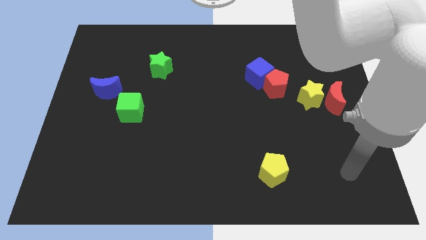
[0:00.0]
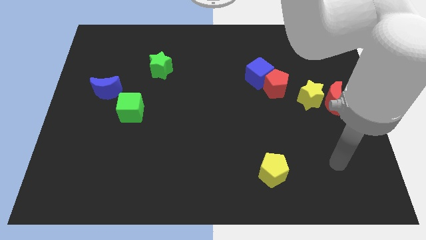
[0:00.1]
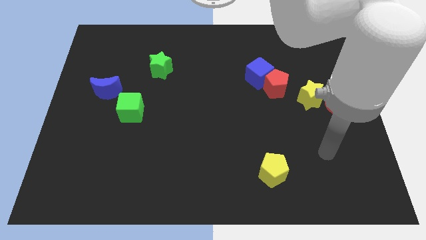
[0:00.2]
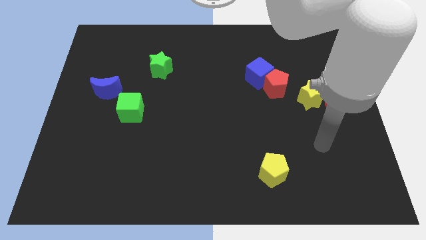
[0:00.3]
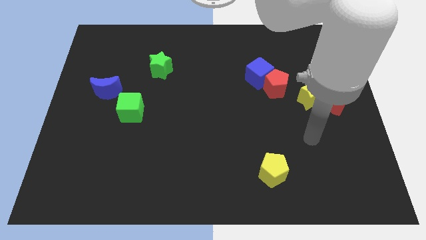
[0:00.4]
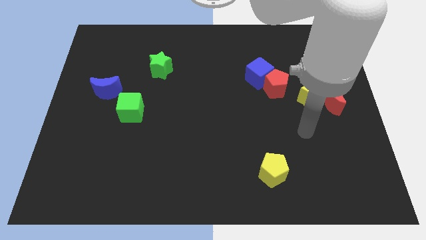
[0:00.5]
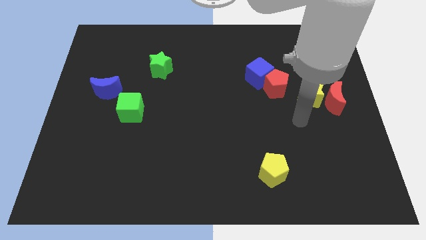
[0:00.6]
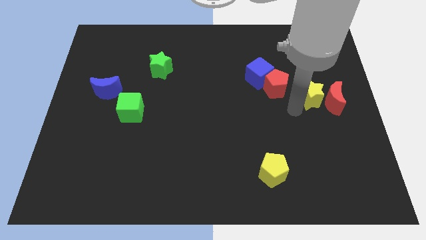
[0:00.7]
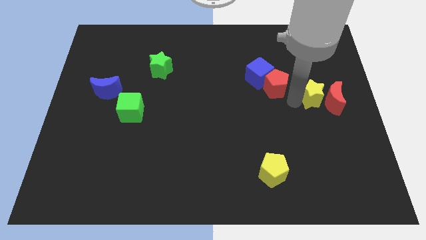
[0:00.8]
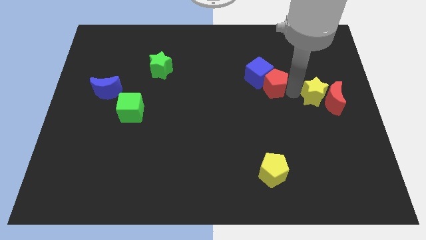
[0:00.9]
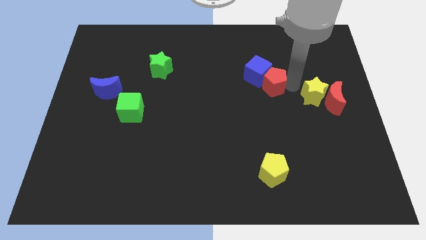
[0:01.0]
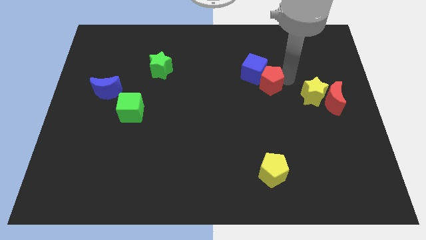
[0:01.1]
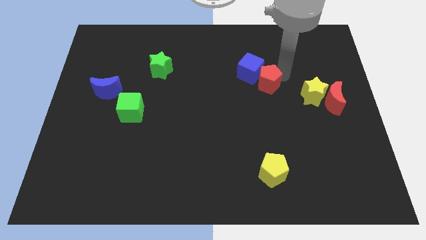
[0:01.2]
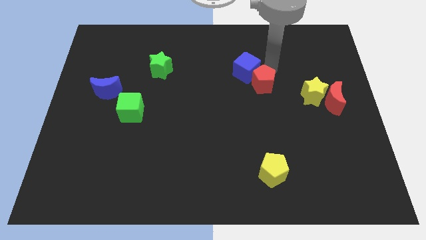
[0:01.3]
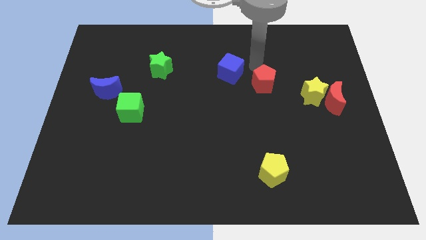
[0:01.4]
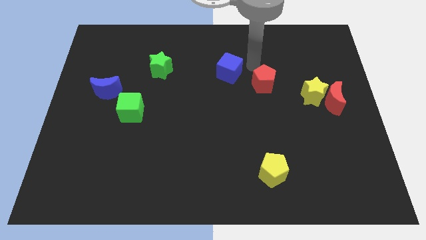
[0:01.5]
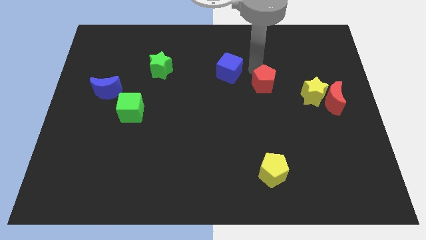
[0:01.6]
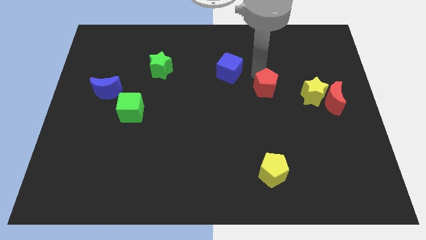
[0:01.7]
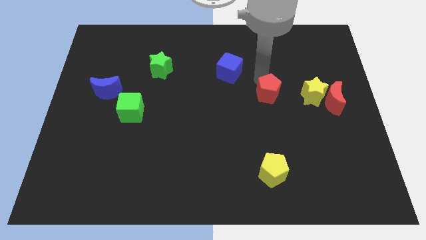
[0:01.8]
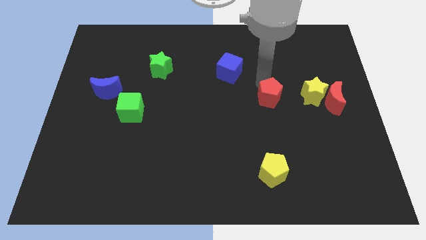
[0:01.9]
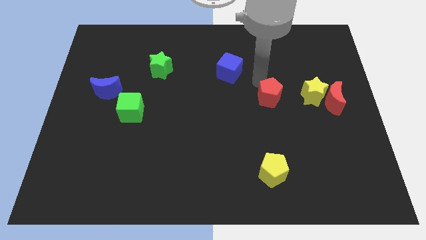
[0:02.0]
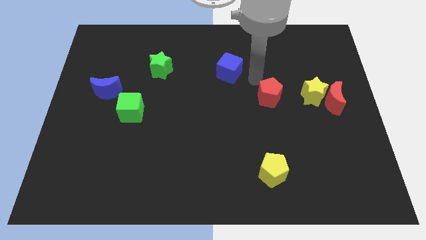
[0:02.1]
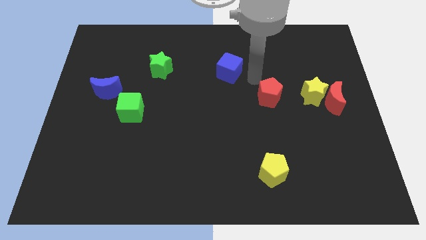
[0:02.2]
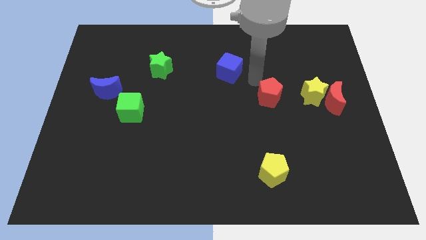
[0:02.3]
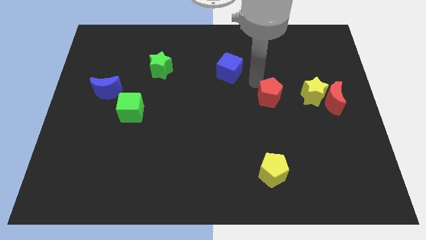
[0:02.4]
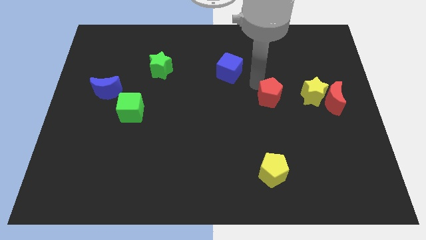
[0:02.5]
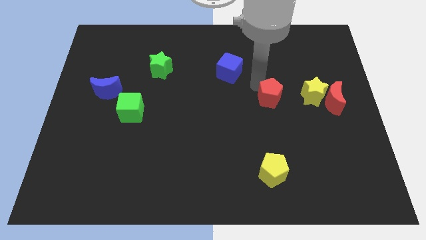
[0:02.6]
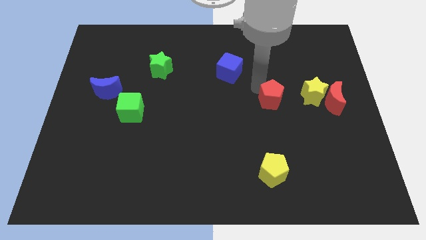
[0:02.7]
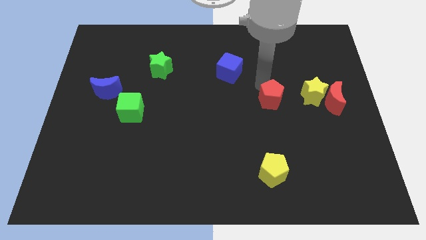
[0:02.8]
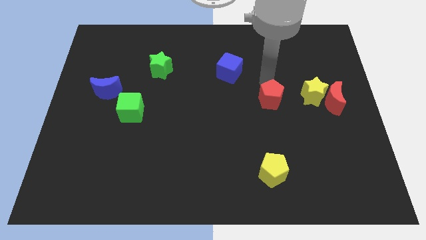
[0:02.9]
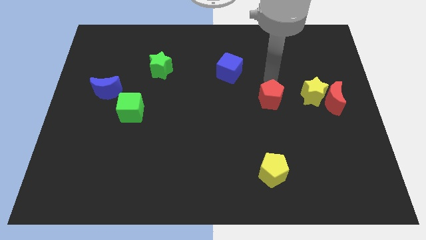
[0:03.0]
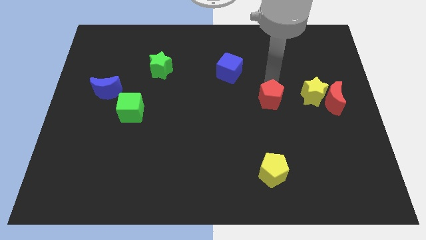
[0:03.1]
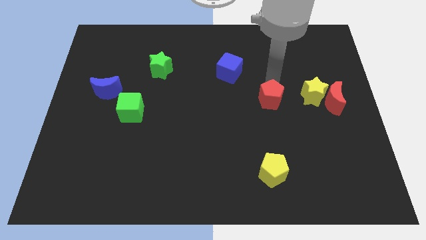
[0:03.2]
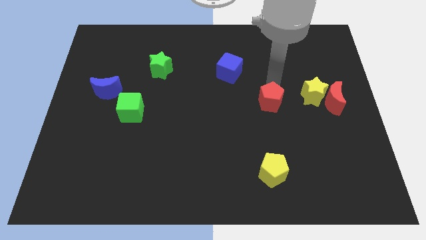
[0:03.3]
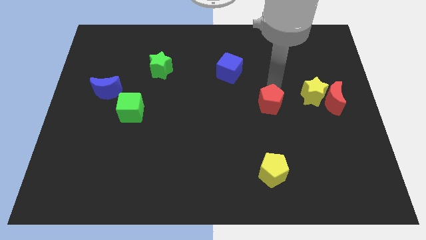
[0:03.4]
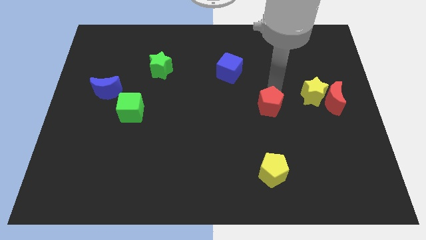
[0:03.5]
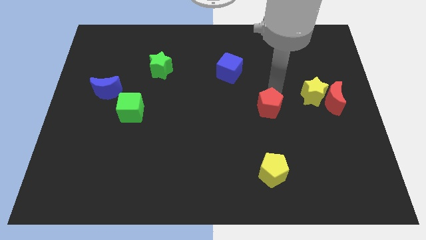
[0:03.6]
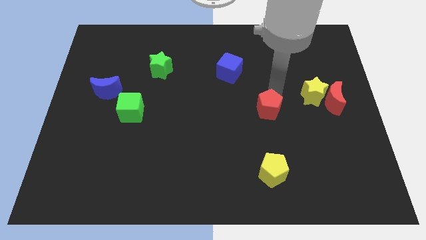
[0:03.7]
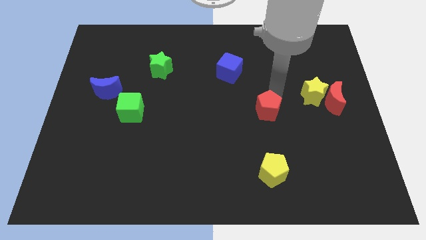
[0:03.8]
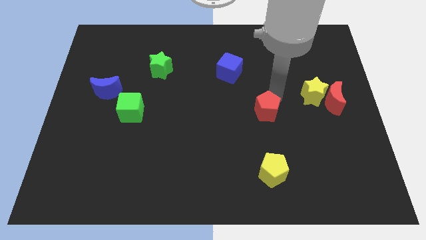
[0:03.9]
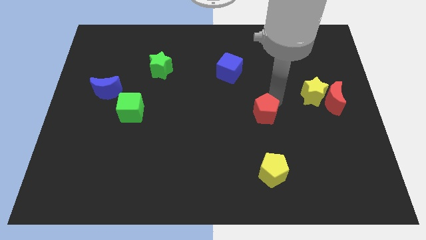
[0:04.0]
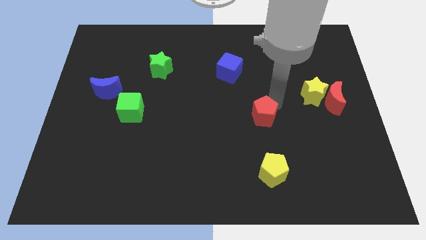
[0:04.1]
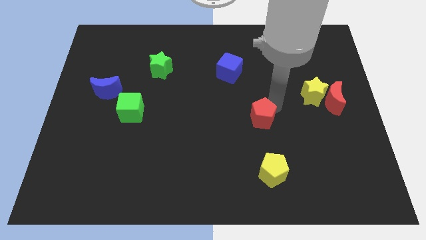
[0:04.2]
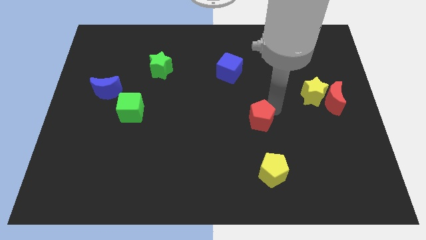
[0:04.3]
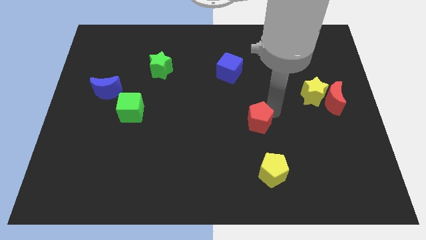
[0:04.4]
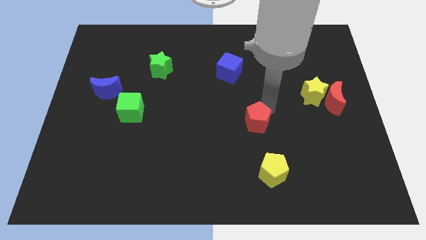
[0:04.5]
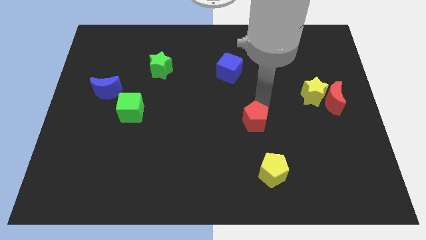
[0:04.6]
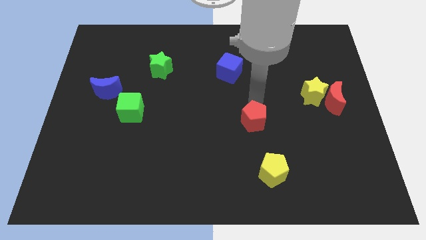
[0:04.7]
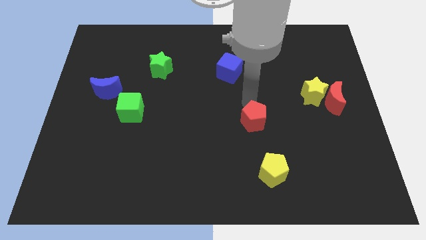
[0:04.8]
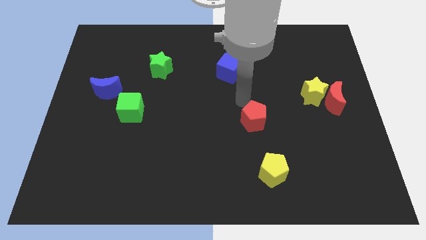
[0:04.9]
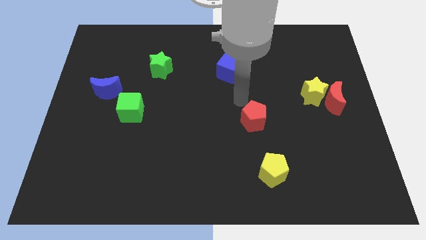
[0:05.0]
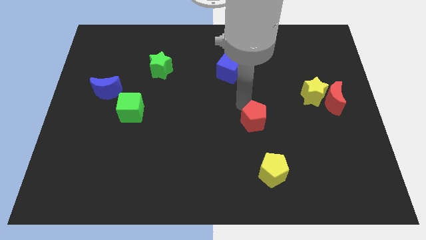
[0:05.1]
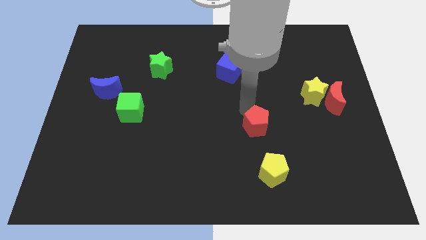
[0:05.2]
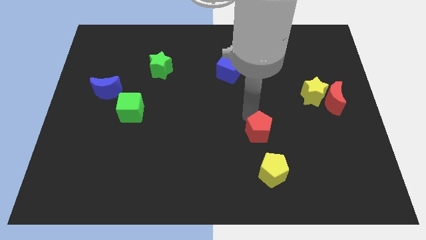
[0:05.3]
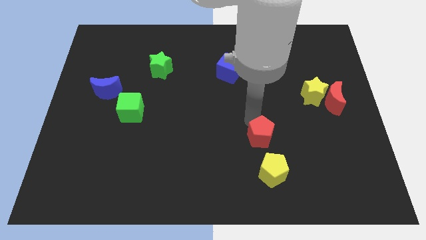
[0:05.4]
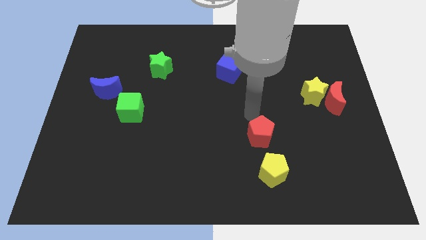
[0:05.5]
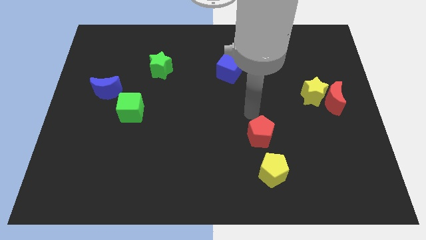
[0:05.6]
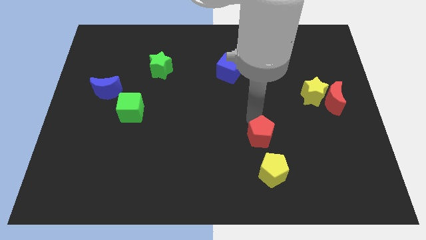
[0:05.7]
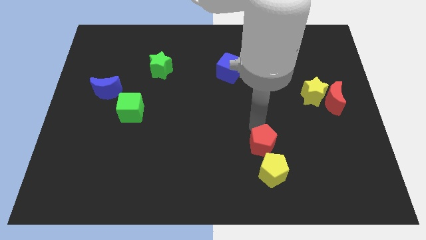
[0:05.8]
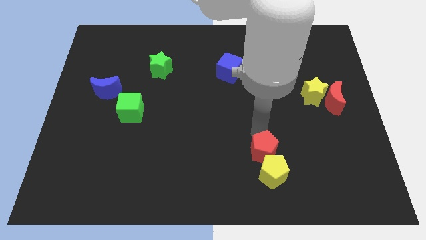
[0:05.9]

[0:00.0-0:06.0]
move the red pentagon next to the yellow pentagon

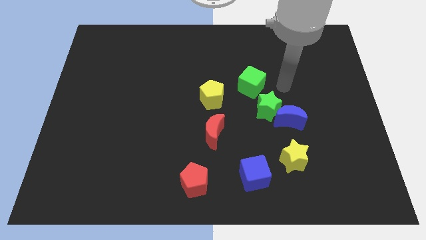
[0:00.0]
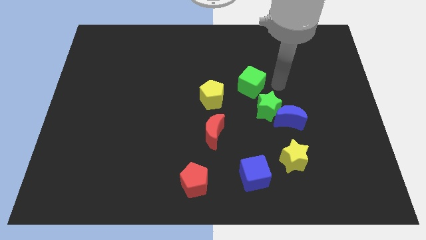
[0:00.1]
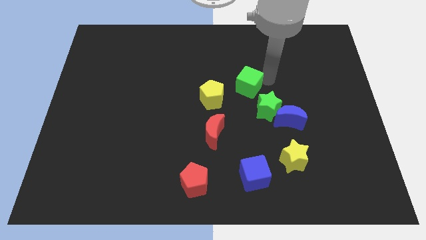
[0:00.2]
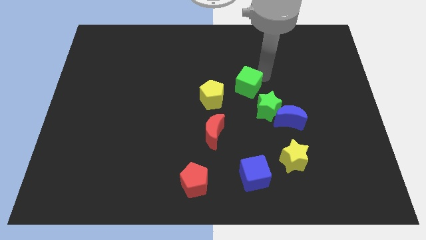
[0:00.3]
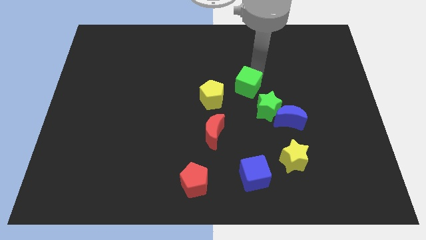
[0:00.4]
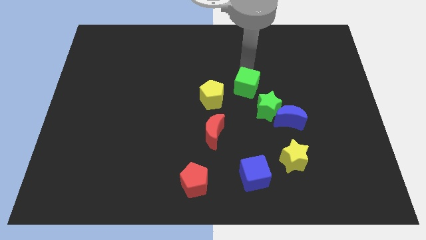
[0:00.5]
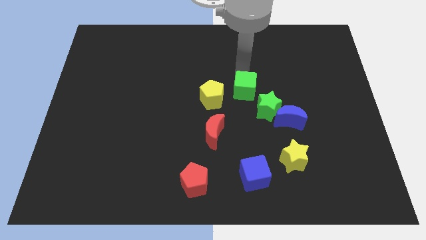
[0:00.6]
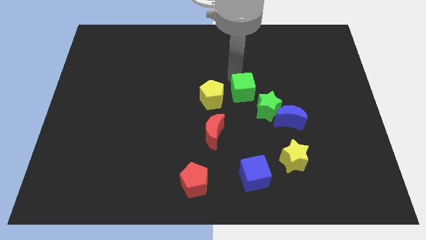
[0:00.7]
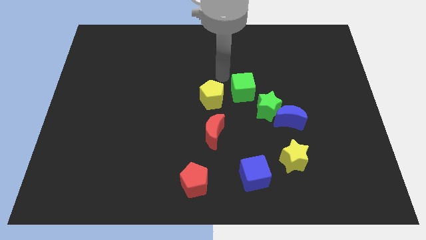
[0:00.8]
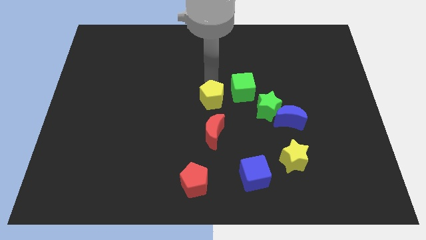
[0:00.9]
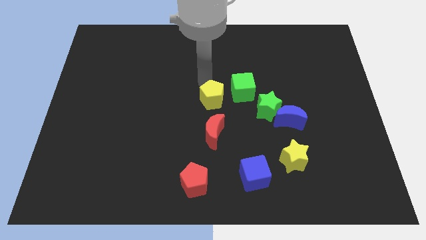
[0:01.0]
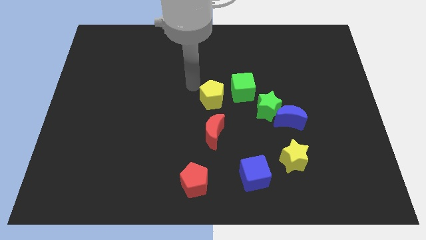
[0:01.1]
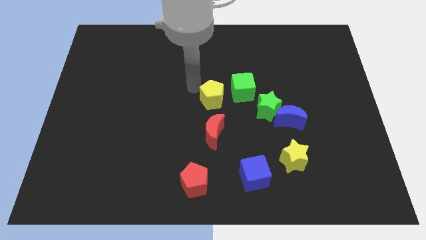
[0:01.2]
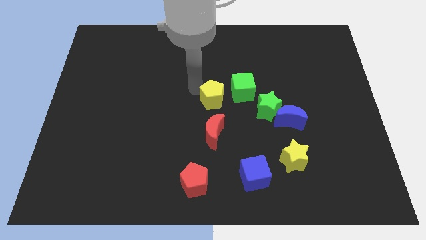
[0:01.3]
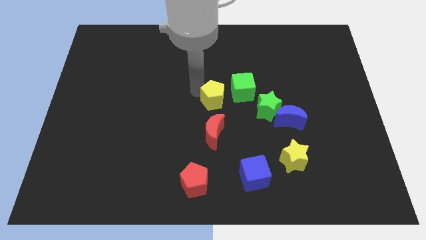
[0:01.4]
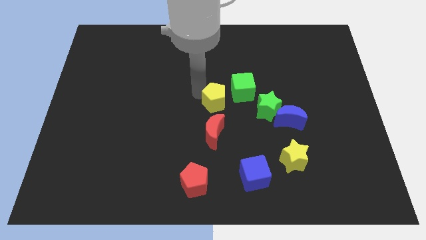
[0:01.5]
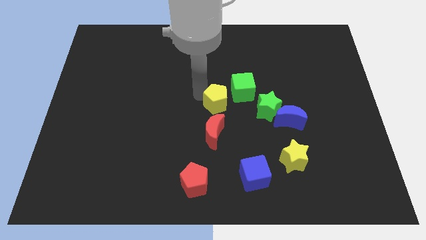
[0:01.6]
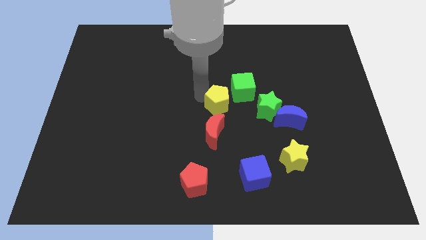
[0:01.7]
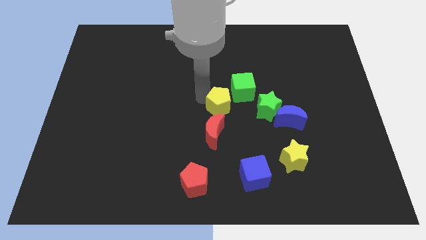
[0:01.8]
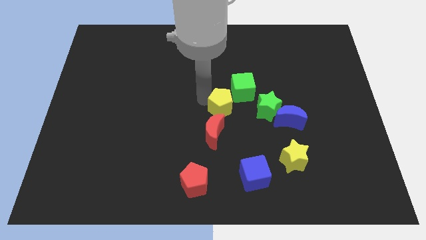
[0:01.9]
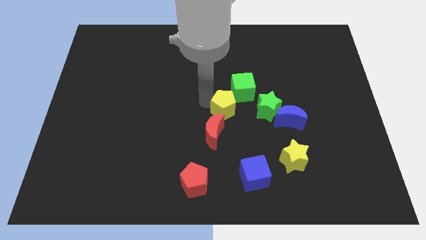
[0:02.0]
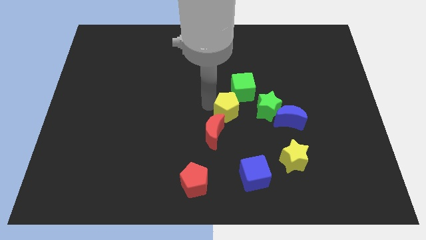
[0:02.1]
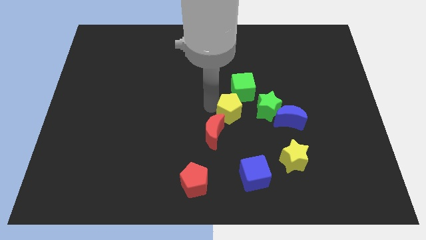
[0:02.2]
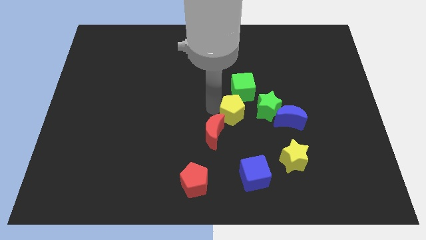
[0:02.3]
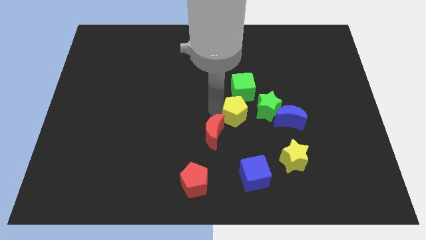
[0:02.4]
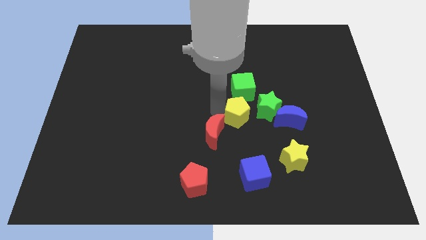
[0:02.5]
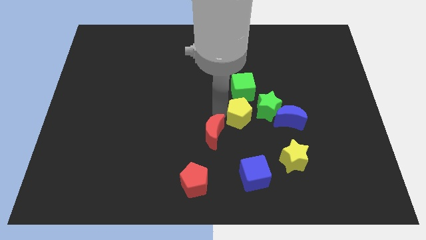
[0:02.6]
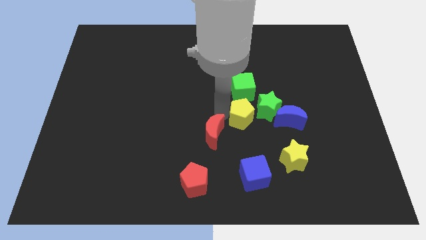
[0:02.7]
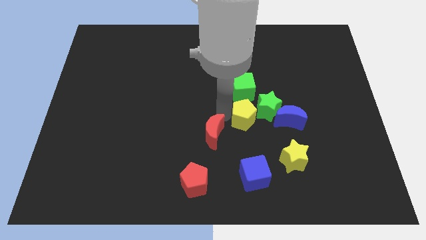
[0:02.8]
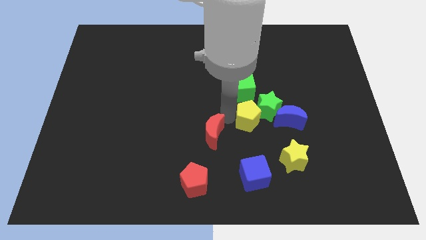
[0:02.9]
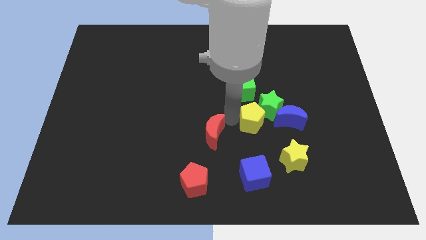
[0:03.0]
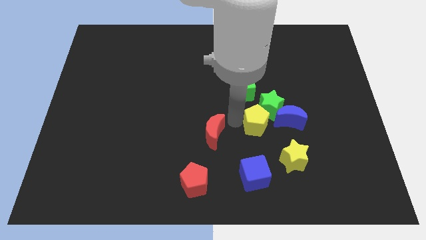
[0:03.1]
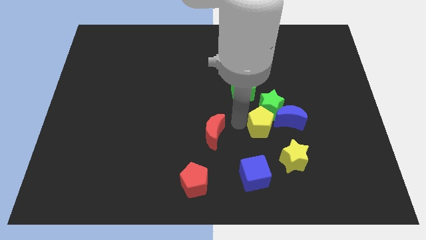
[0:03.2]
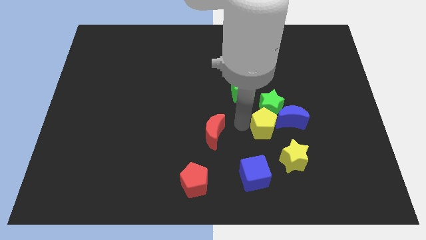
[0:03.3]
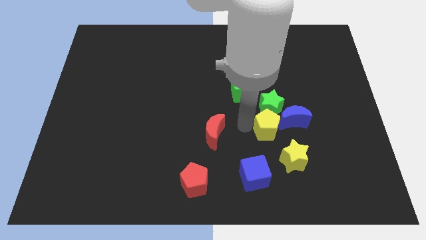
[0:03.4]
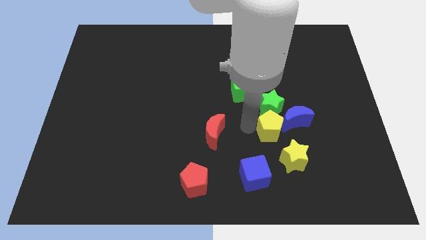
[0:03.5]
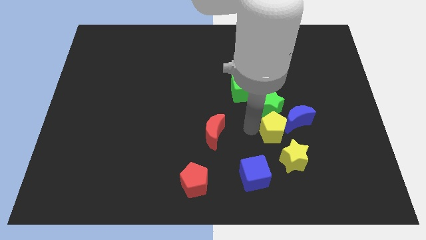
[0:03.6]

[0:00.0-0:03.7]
move the yellow pentagon to the blue moon
